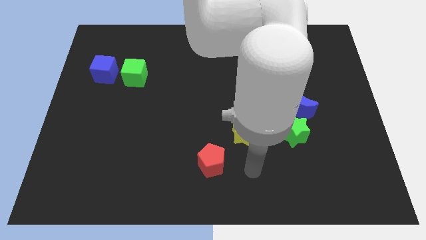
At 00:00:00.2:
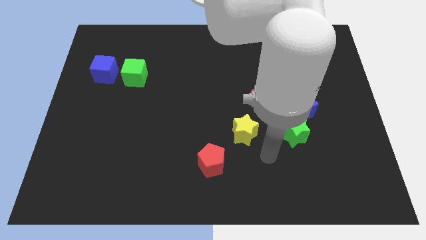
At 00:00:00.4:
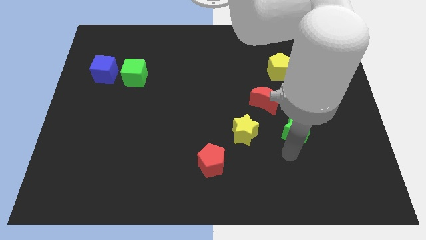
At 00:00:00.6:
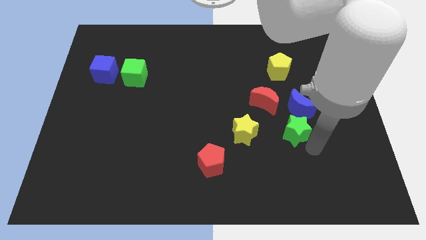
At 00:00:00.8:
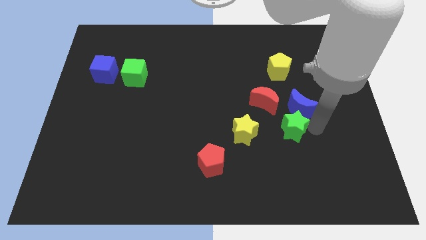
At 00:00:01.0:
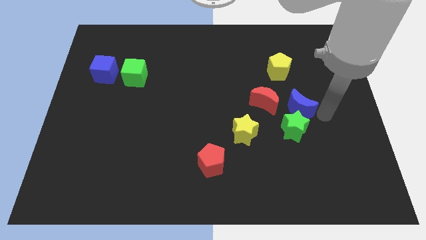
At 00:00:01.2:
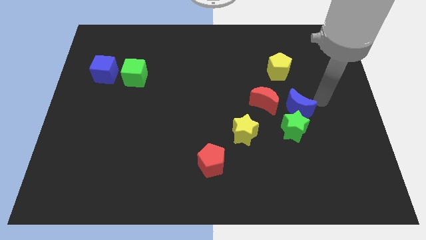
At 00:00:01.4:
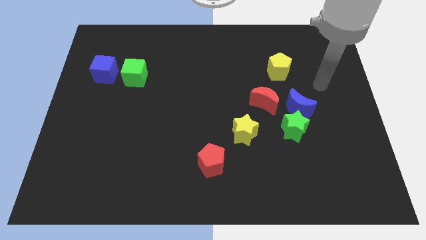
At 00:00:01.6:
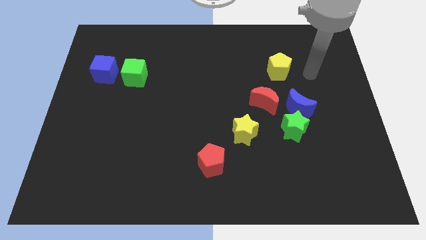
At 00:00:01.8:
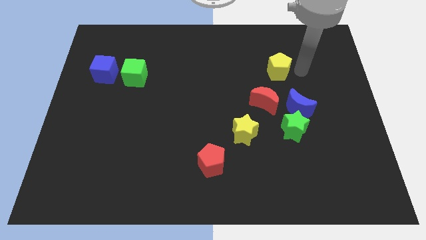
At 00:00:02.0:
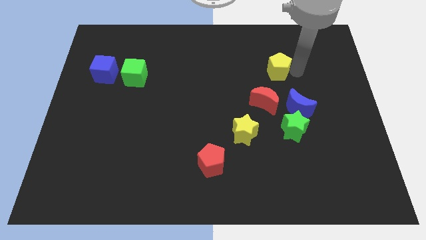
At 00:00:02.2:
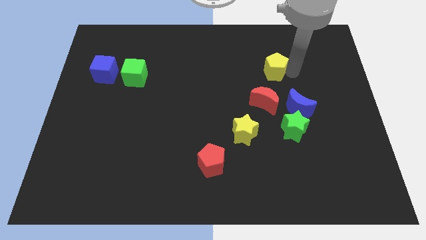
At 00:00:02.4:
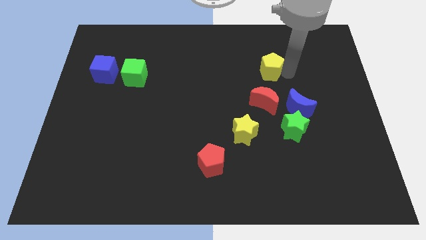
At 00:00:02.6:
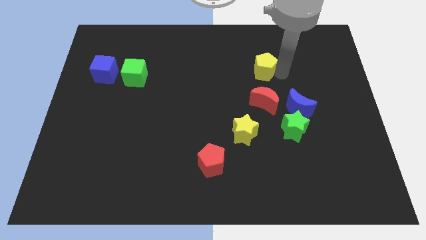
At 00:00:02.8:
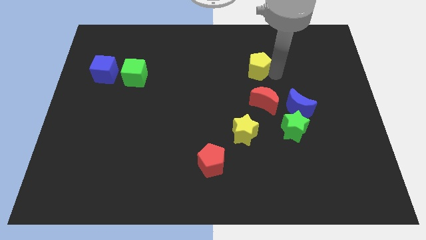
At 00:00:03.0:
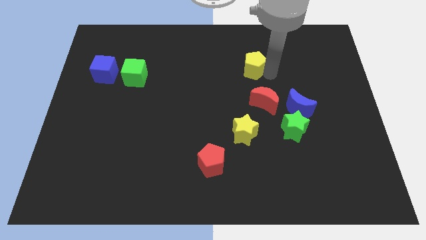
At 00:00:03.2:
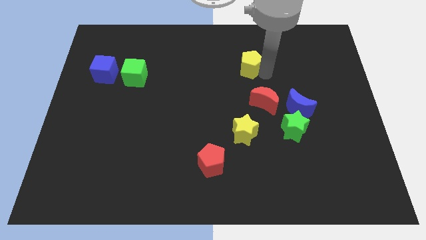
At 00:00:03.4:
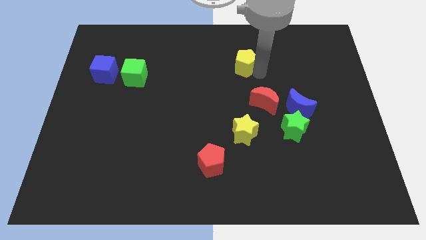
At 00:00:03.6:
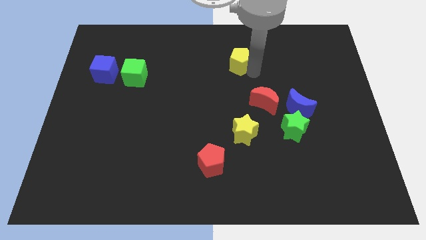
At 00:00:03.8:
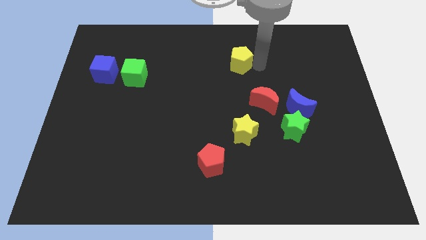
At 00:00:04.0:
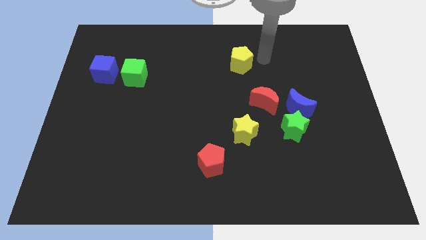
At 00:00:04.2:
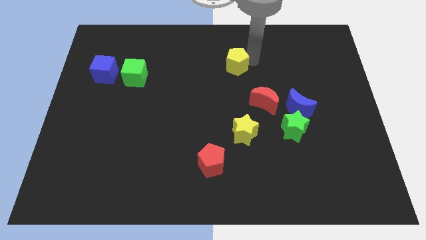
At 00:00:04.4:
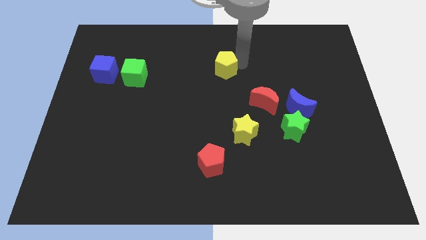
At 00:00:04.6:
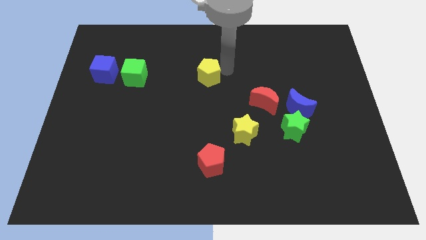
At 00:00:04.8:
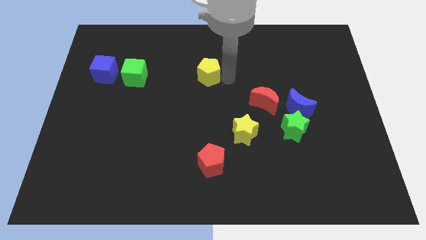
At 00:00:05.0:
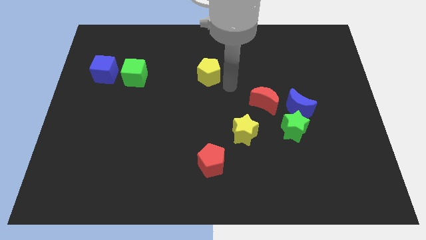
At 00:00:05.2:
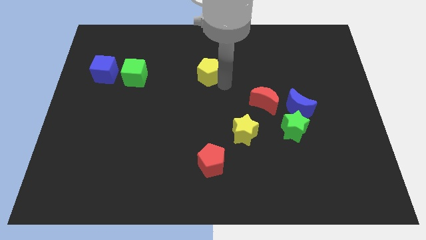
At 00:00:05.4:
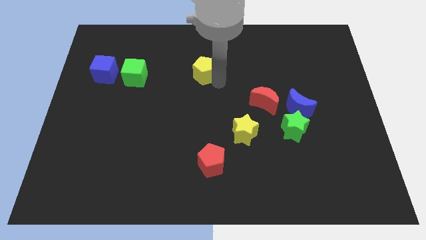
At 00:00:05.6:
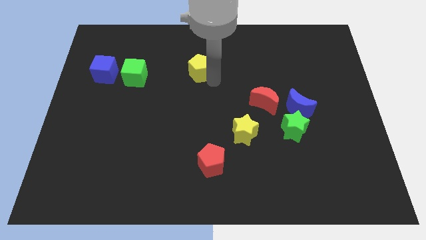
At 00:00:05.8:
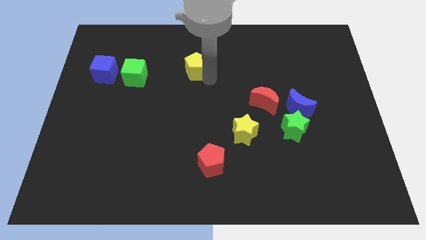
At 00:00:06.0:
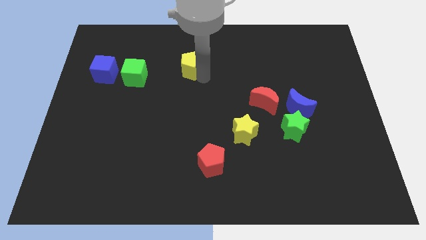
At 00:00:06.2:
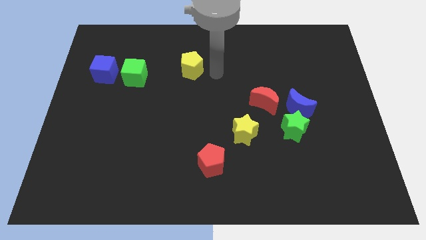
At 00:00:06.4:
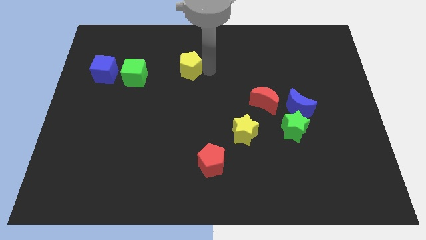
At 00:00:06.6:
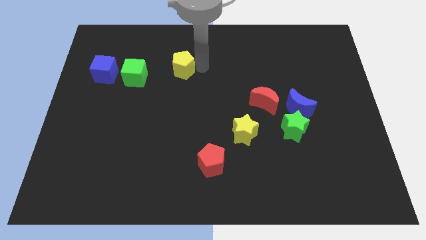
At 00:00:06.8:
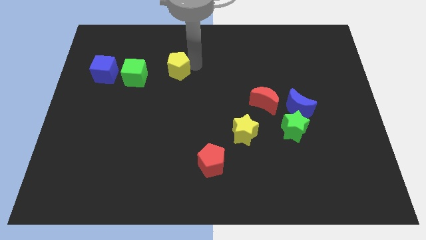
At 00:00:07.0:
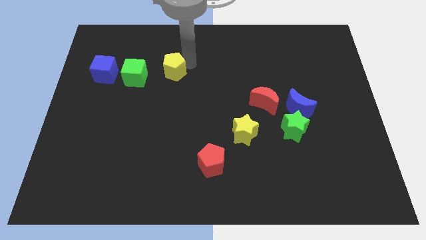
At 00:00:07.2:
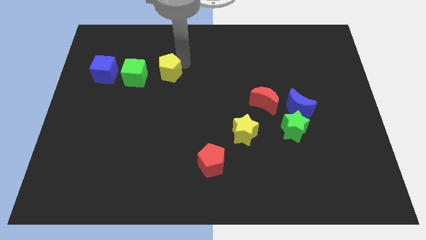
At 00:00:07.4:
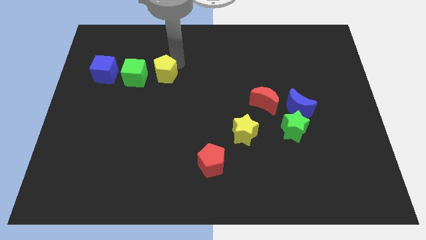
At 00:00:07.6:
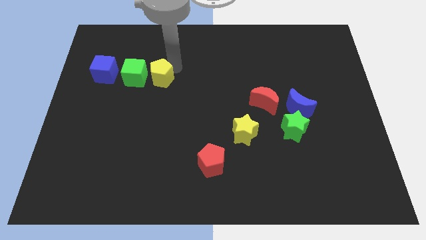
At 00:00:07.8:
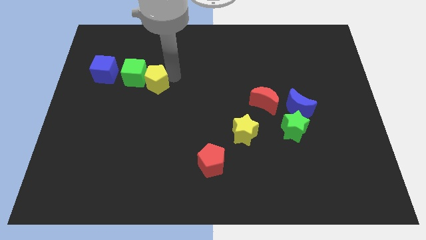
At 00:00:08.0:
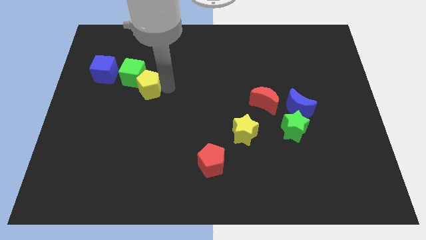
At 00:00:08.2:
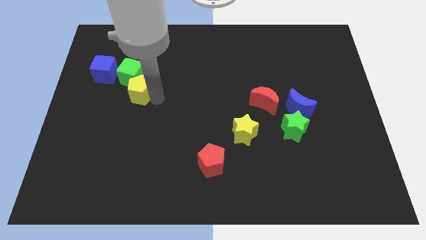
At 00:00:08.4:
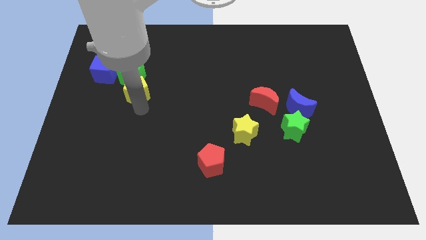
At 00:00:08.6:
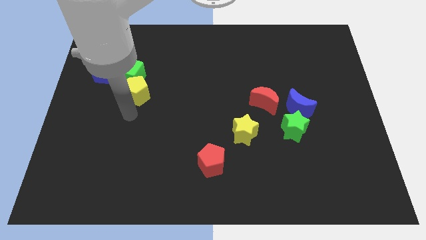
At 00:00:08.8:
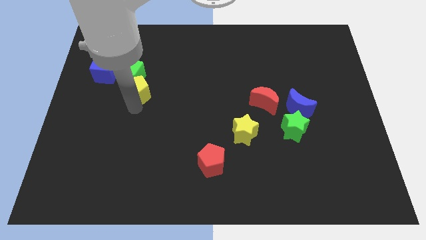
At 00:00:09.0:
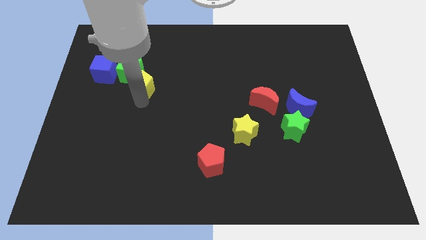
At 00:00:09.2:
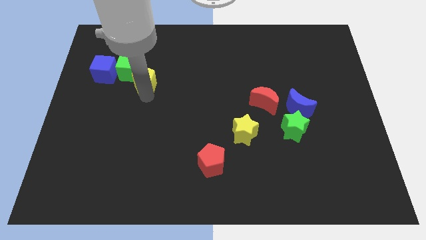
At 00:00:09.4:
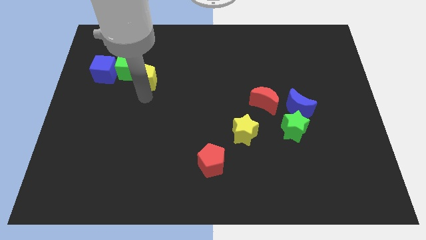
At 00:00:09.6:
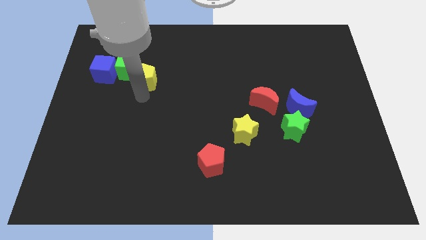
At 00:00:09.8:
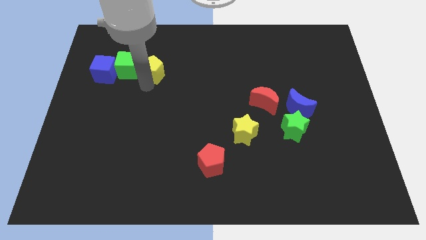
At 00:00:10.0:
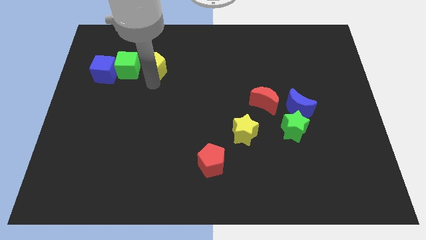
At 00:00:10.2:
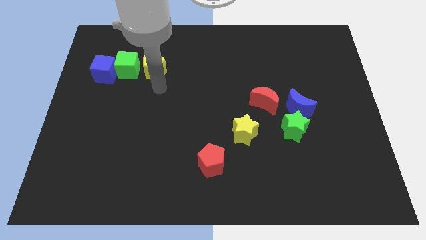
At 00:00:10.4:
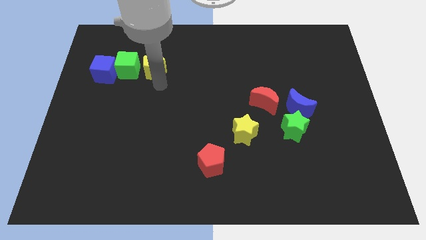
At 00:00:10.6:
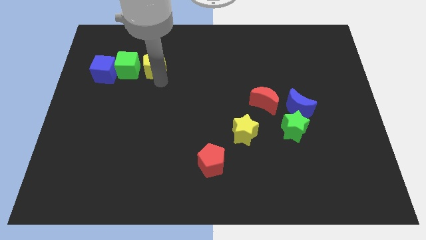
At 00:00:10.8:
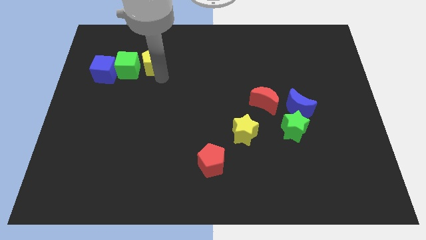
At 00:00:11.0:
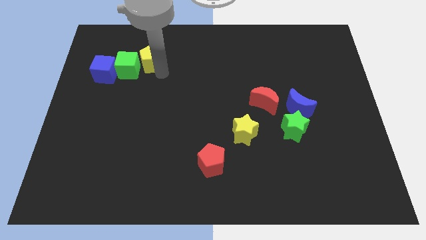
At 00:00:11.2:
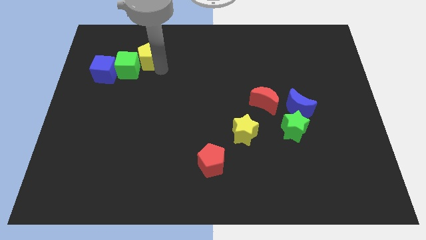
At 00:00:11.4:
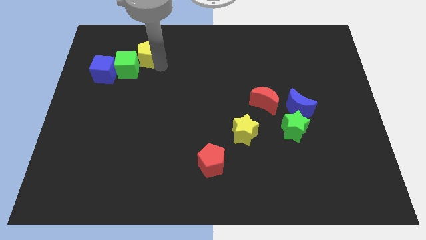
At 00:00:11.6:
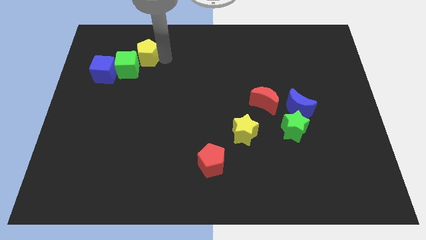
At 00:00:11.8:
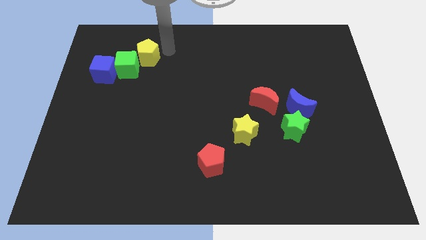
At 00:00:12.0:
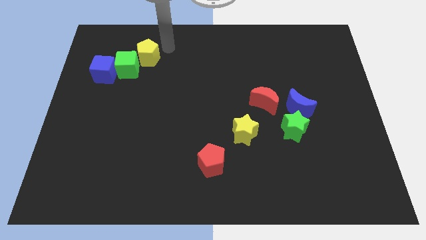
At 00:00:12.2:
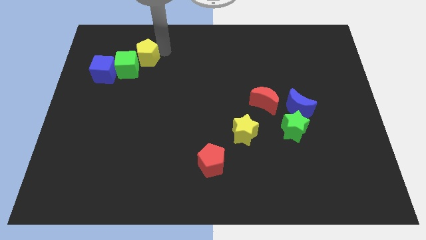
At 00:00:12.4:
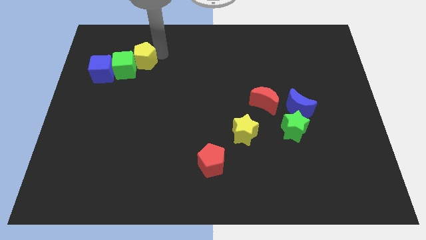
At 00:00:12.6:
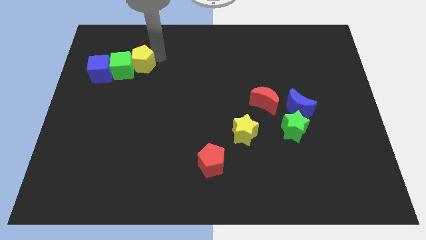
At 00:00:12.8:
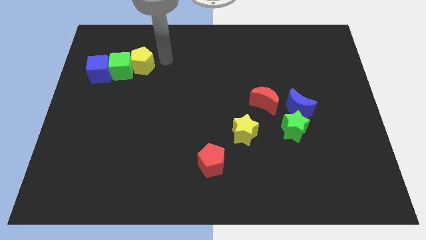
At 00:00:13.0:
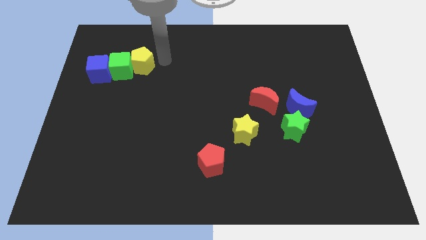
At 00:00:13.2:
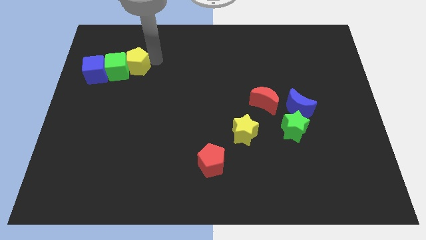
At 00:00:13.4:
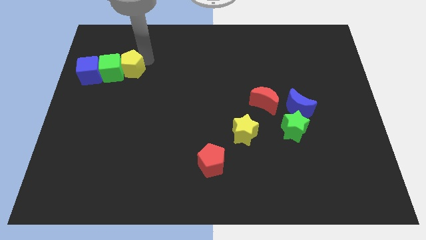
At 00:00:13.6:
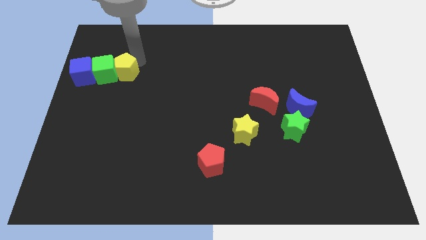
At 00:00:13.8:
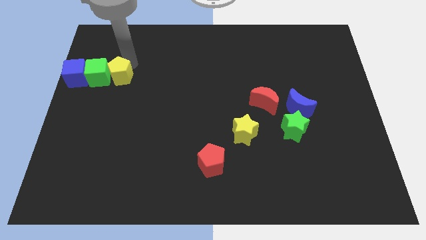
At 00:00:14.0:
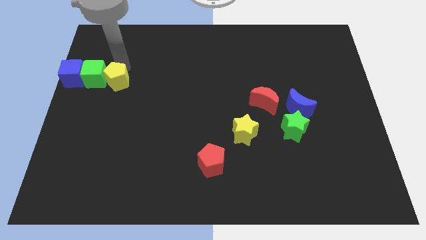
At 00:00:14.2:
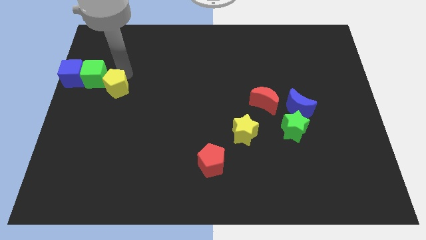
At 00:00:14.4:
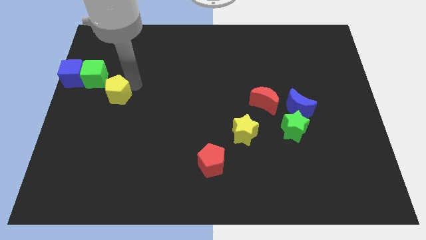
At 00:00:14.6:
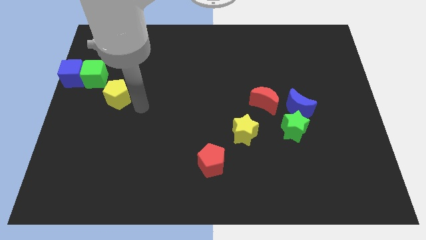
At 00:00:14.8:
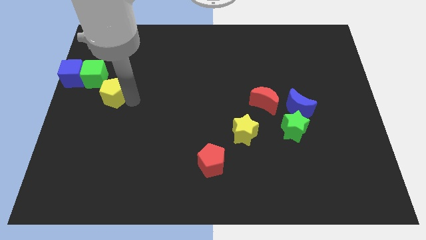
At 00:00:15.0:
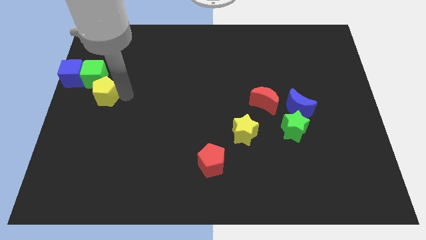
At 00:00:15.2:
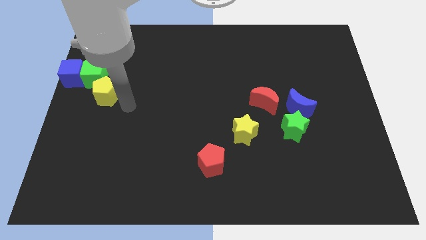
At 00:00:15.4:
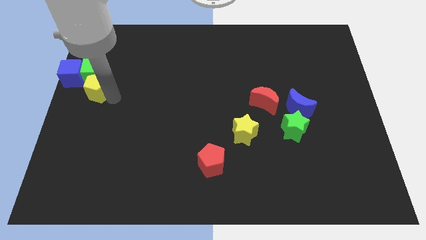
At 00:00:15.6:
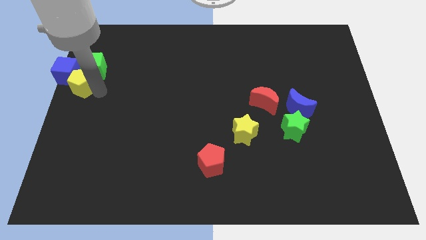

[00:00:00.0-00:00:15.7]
slide the yellow pentagon towards the blue cube
